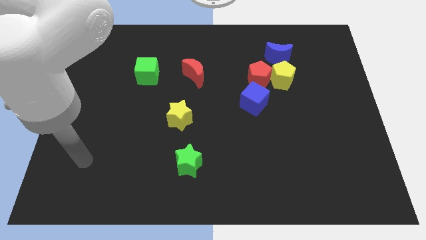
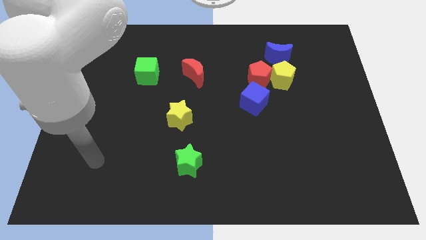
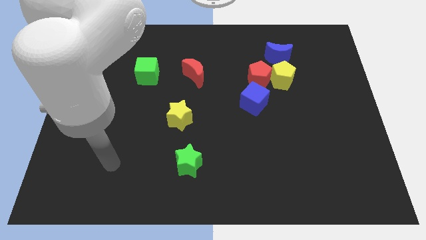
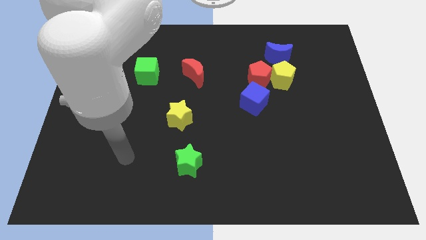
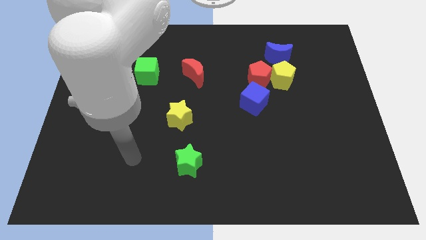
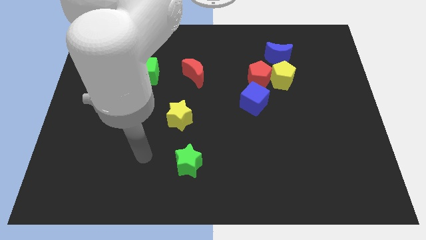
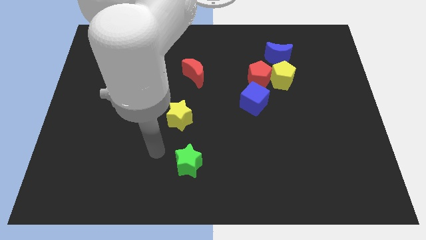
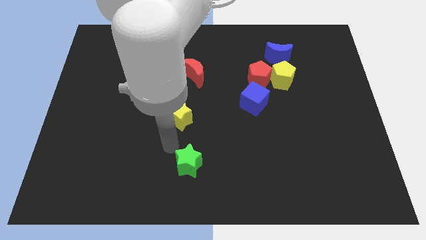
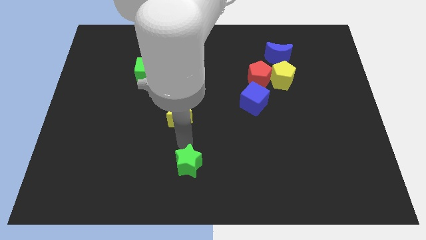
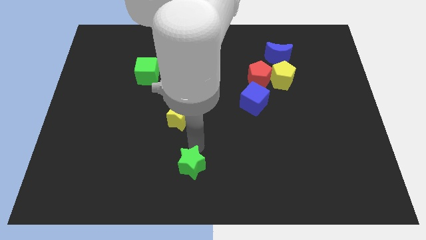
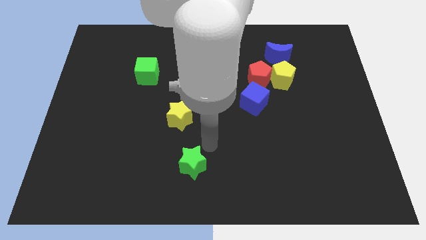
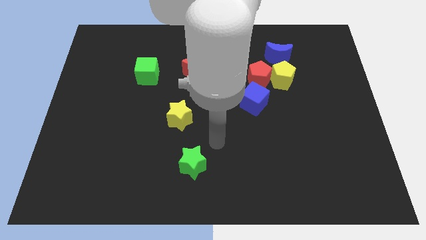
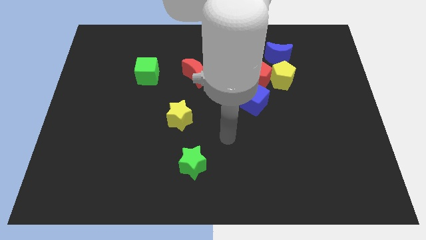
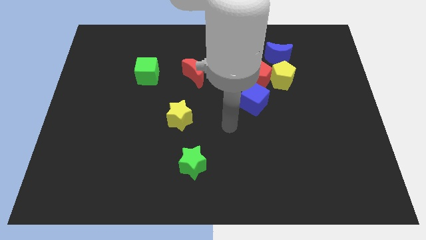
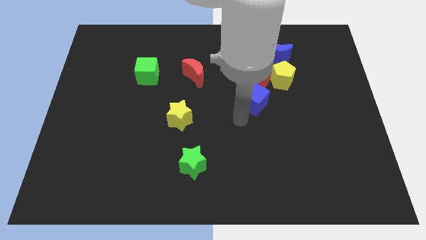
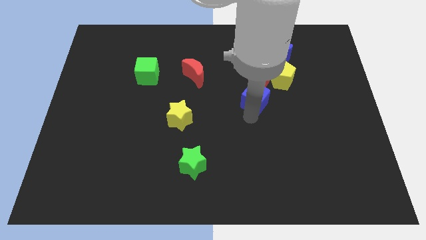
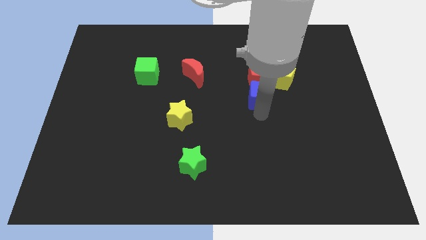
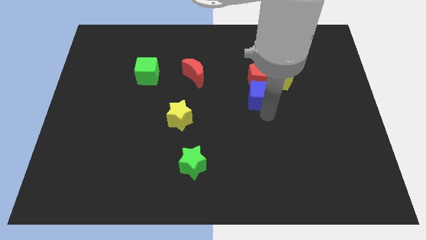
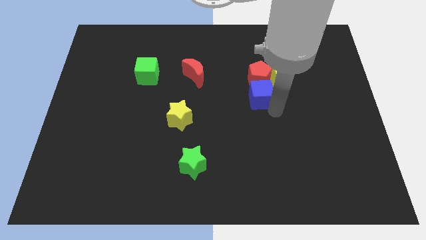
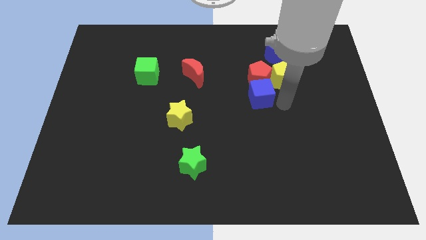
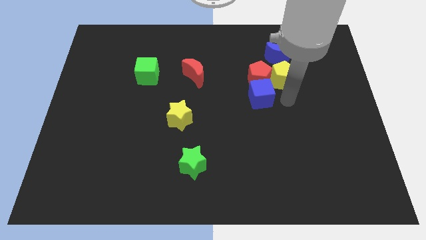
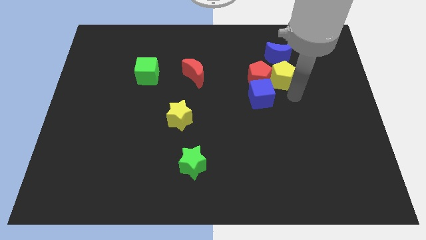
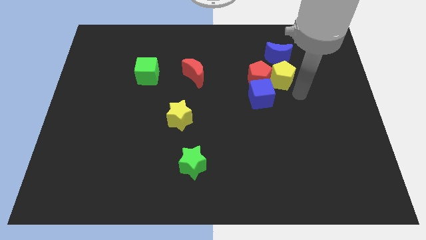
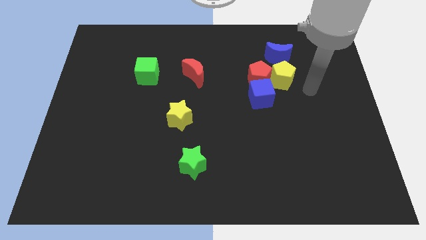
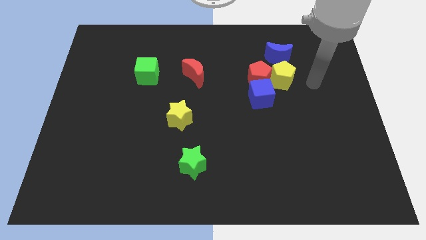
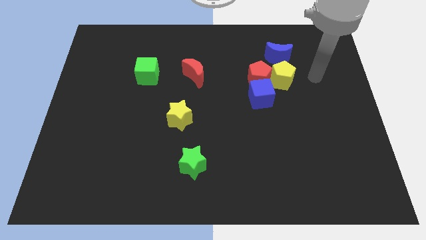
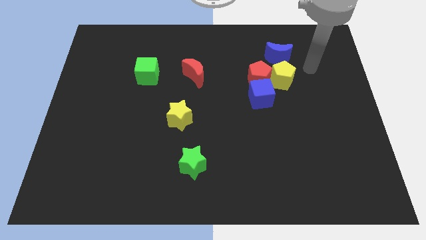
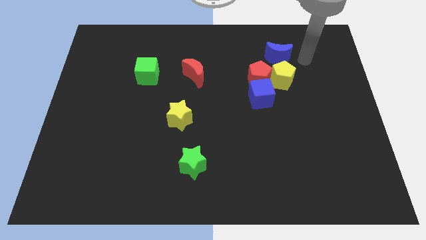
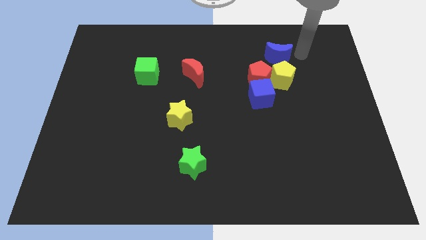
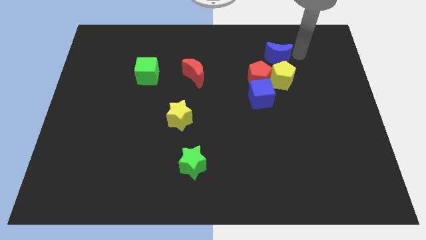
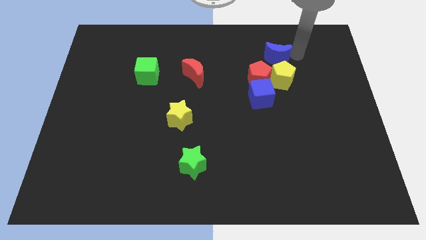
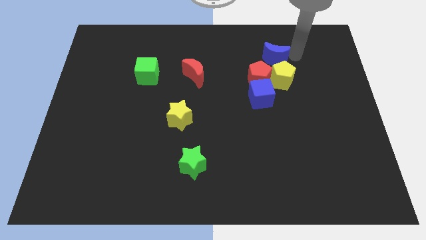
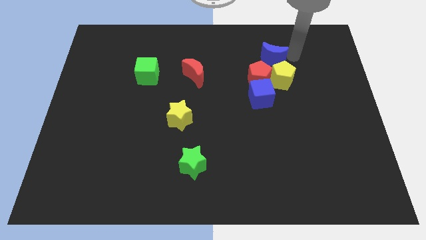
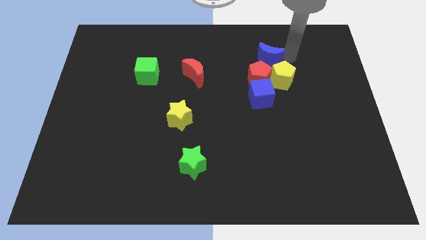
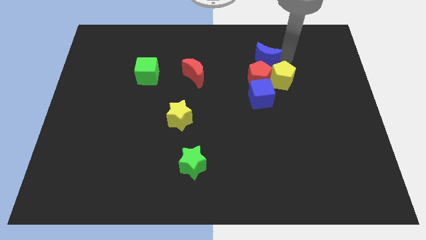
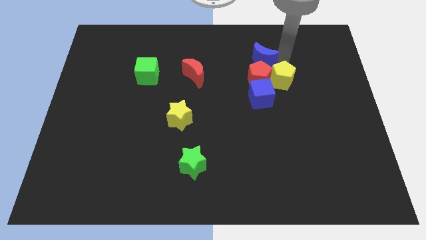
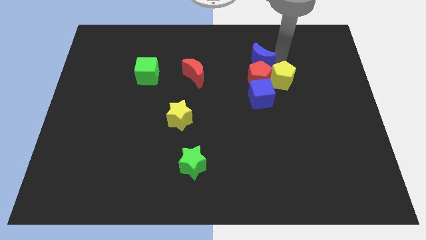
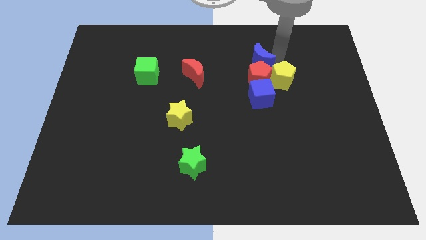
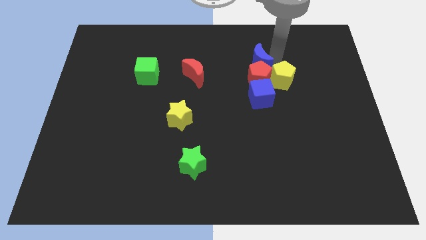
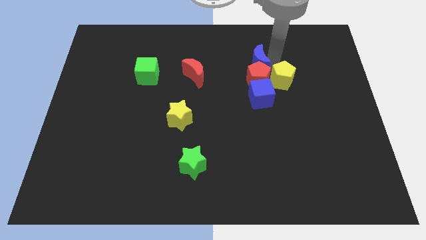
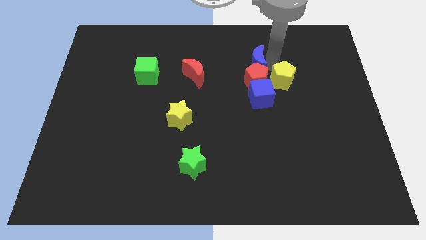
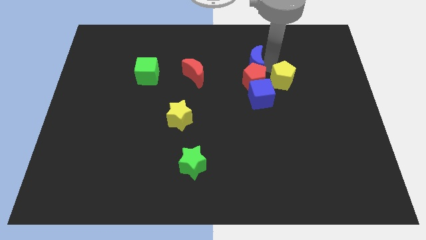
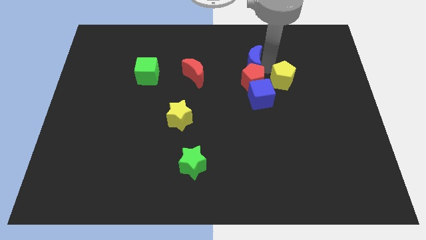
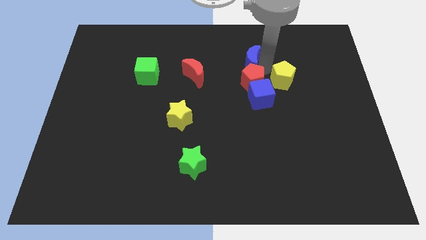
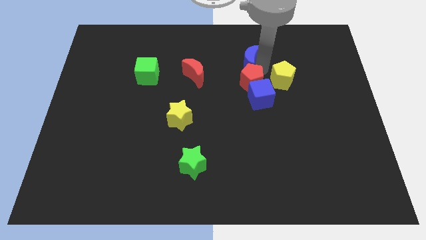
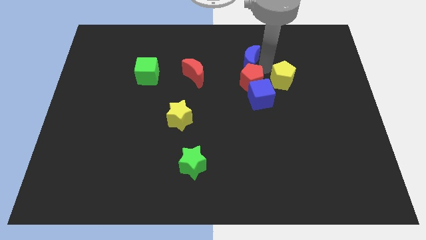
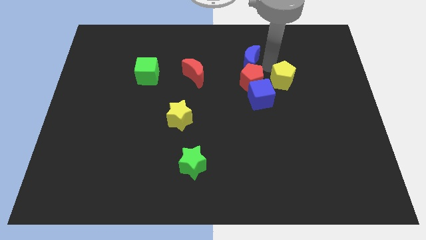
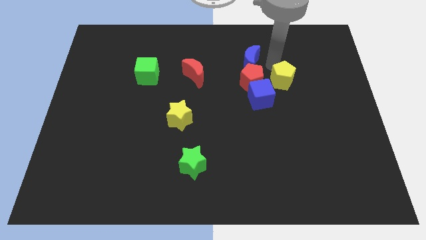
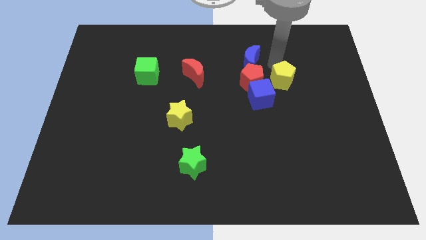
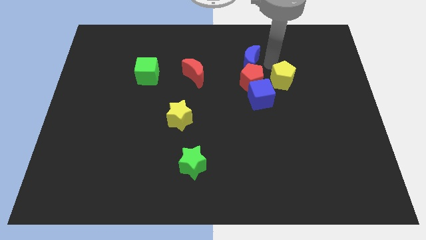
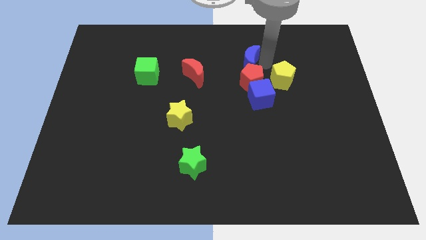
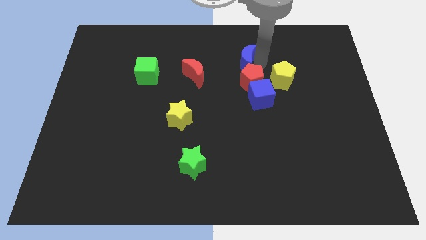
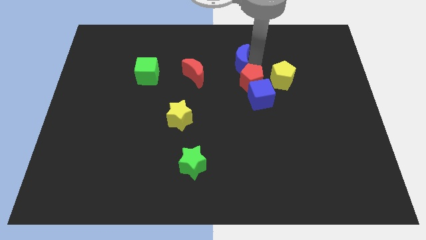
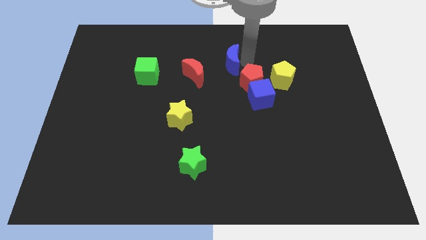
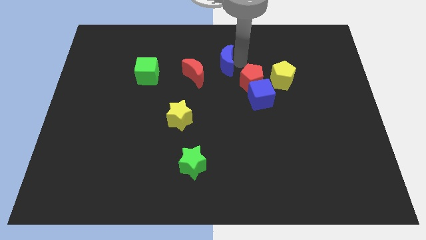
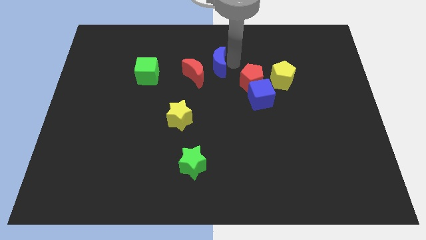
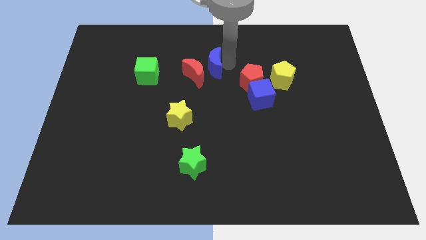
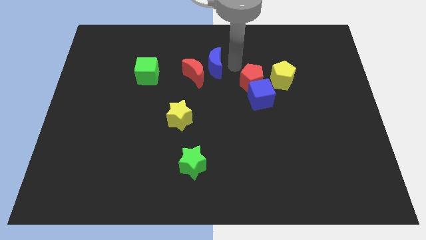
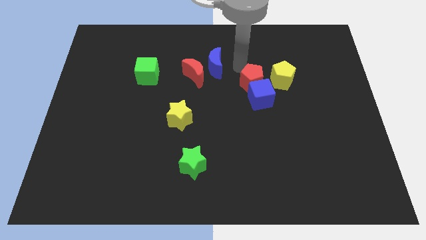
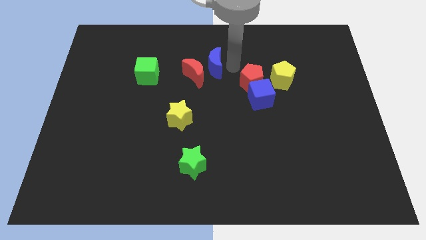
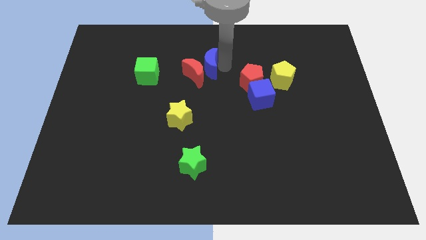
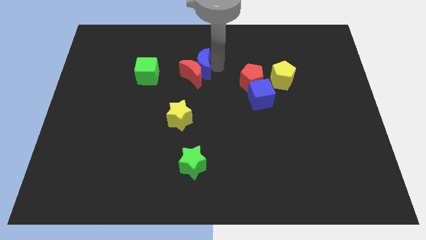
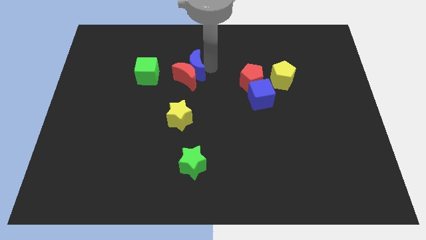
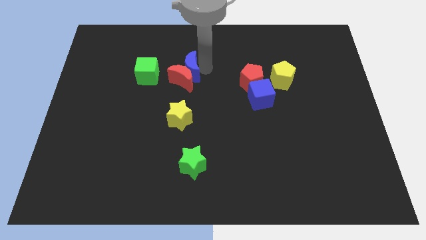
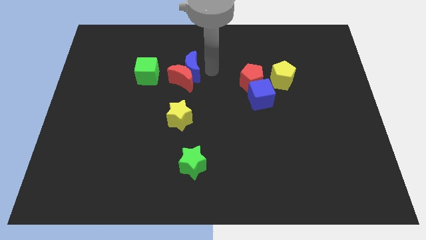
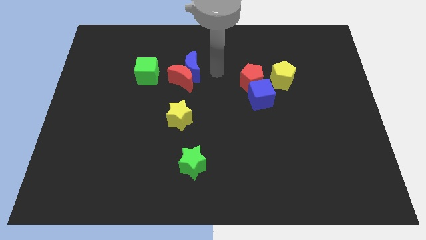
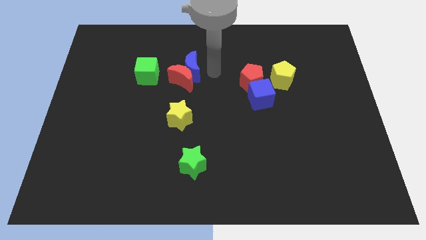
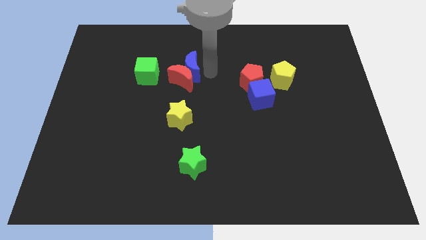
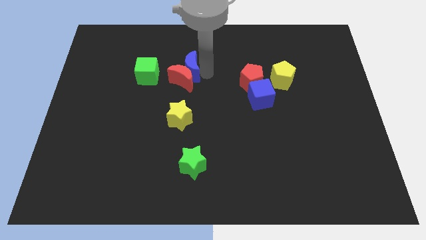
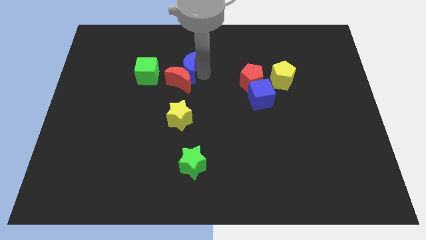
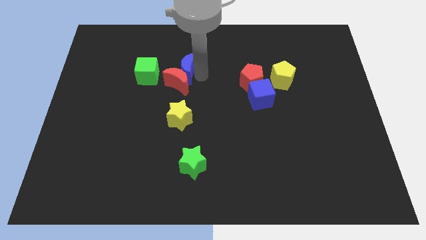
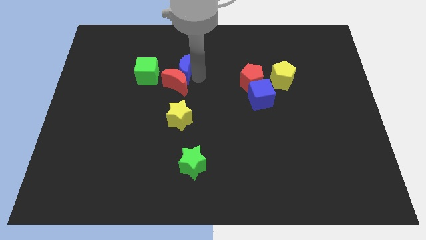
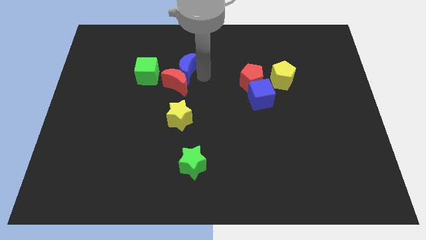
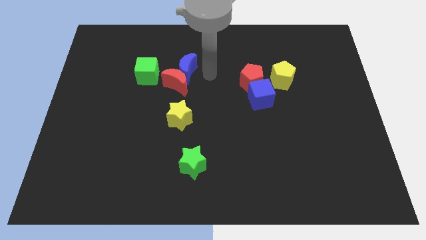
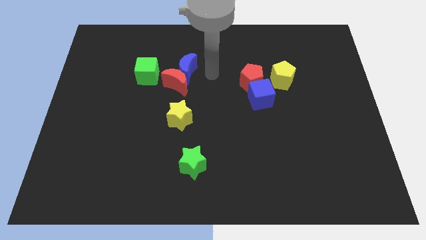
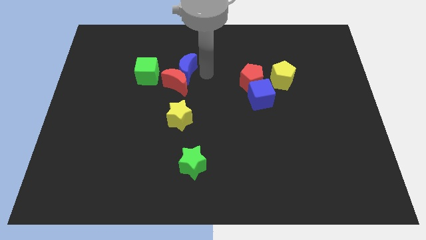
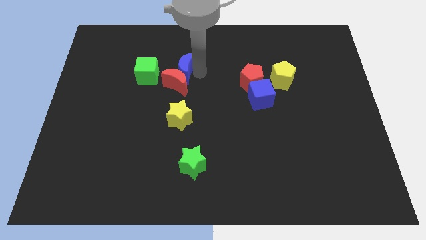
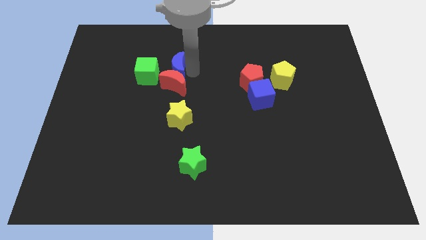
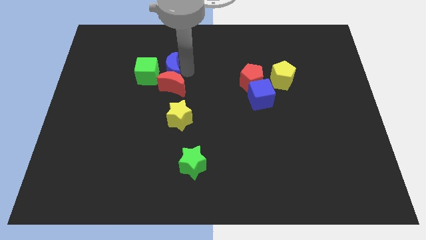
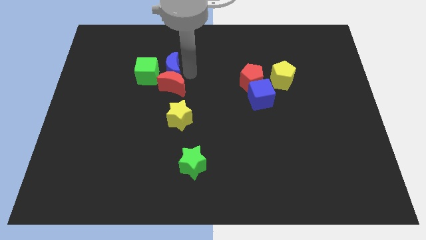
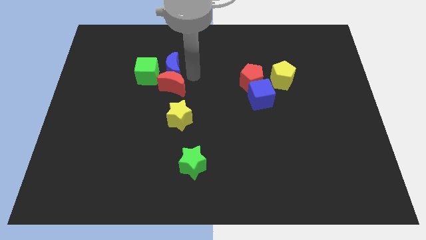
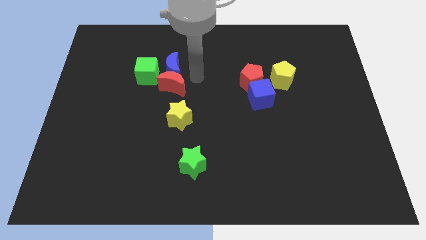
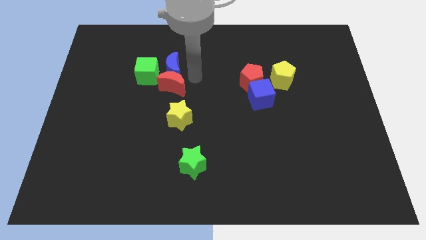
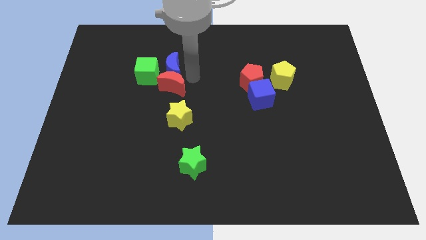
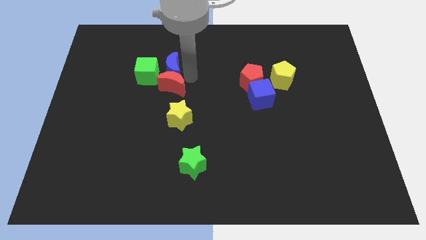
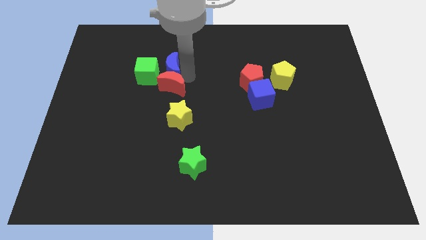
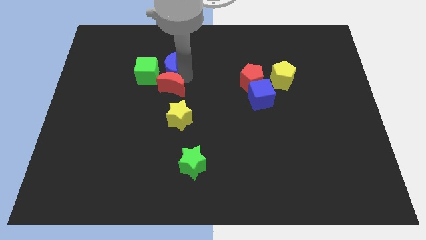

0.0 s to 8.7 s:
push the blue moon to the green cube
